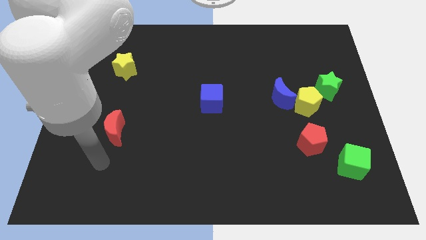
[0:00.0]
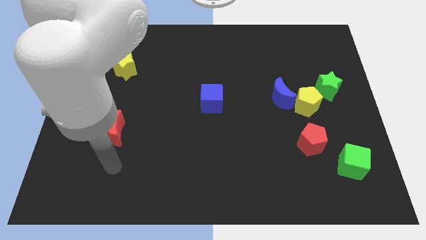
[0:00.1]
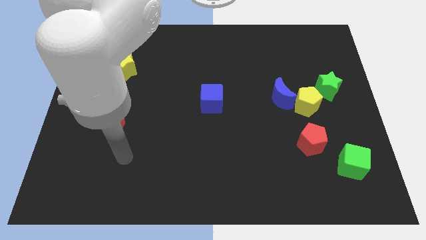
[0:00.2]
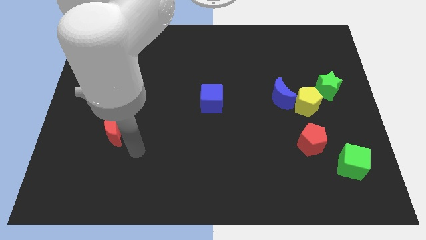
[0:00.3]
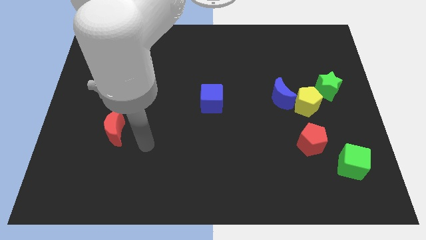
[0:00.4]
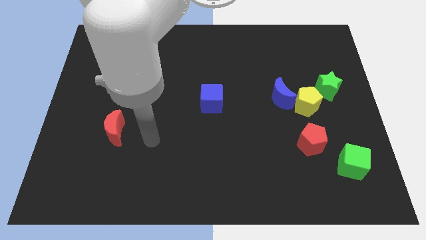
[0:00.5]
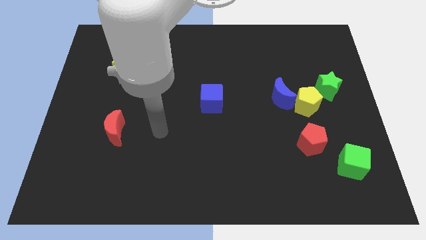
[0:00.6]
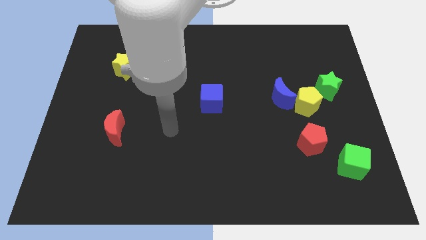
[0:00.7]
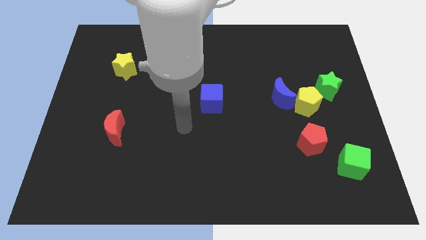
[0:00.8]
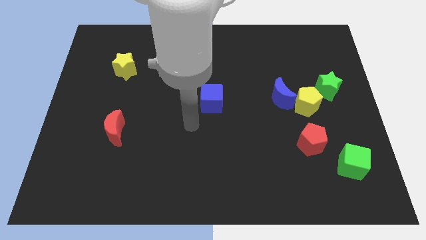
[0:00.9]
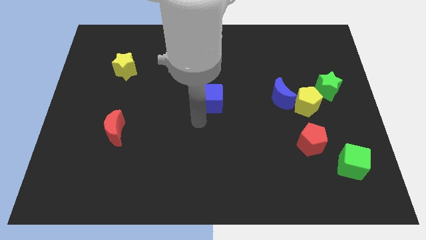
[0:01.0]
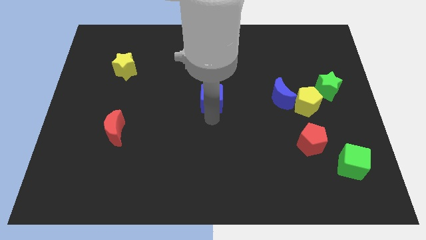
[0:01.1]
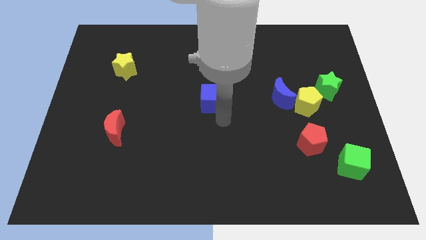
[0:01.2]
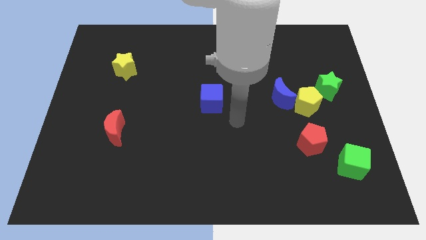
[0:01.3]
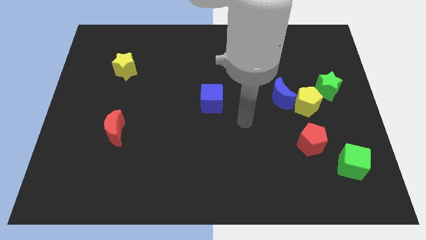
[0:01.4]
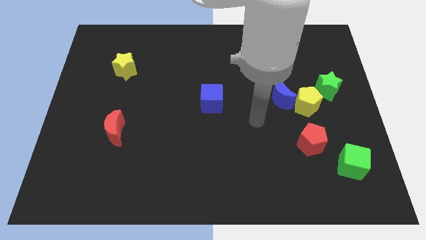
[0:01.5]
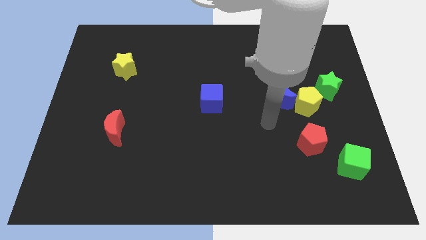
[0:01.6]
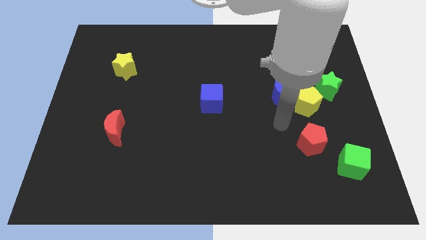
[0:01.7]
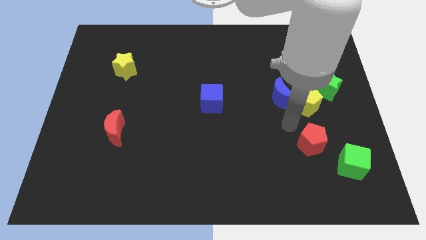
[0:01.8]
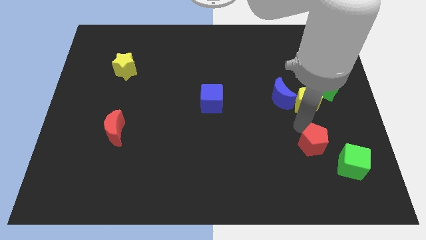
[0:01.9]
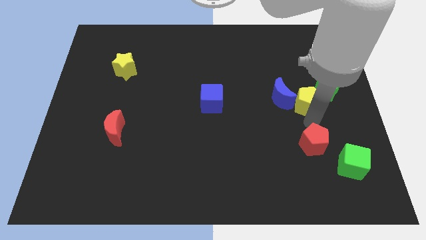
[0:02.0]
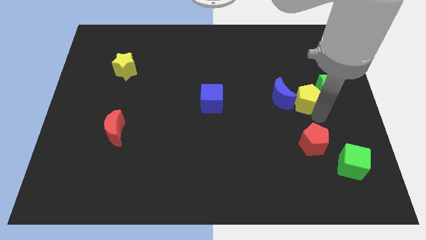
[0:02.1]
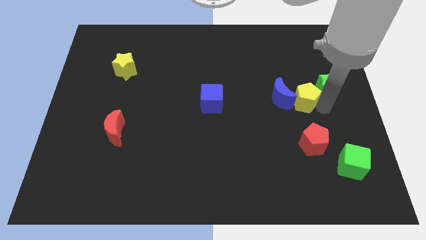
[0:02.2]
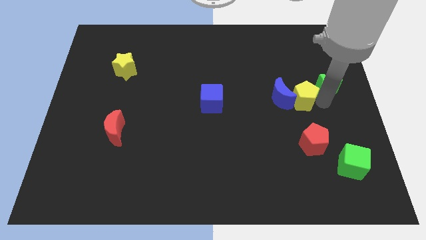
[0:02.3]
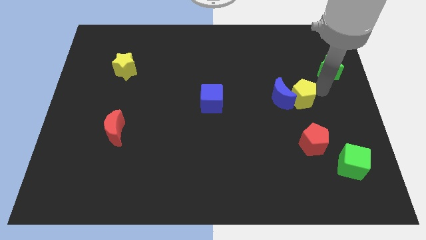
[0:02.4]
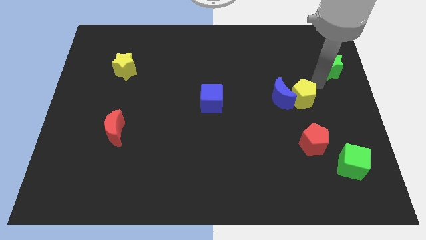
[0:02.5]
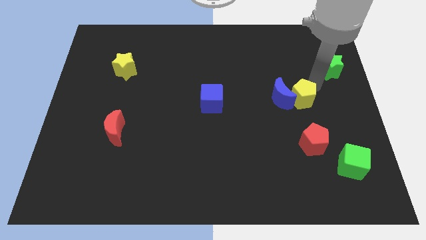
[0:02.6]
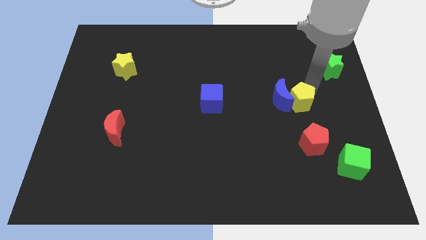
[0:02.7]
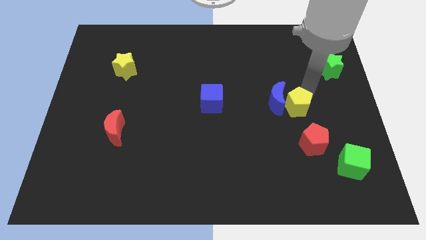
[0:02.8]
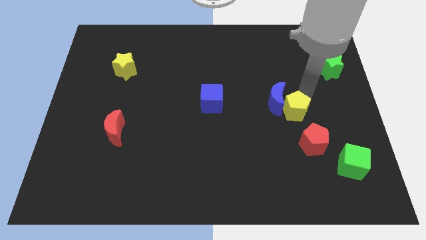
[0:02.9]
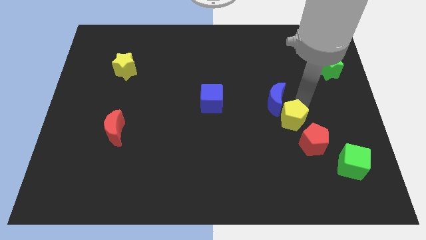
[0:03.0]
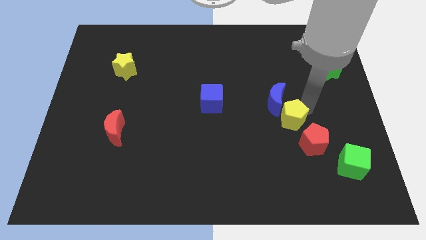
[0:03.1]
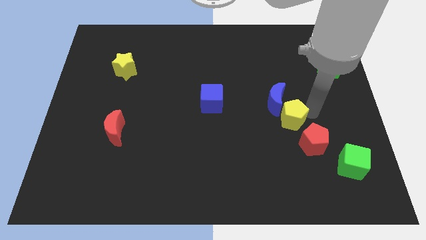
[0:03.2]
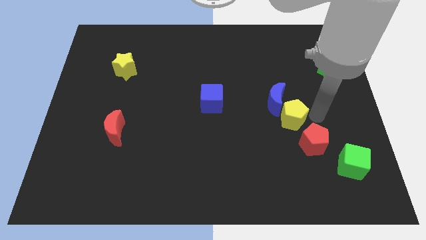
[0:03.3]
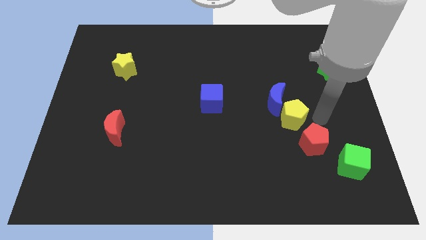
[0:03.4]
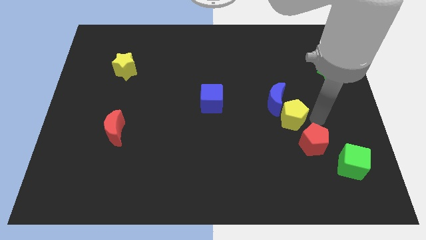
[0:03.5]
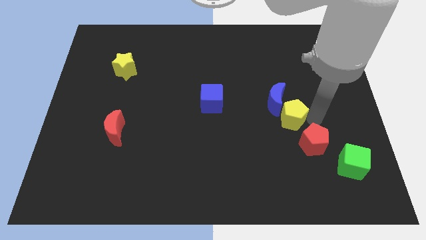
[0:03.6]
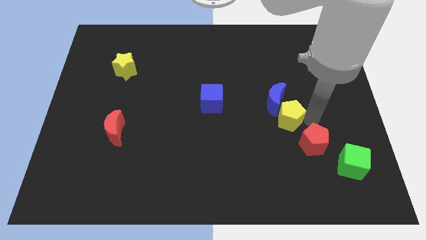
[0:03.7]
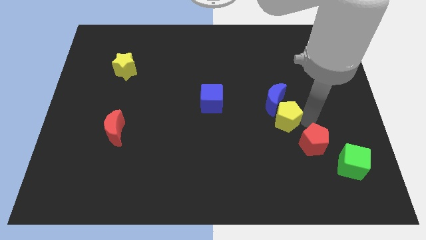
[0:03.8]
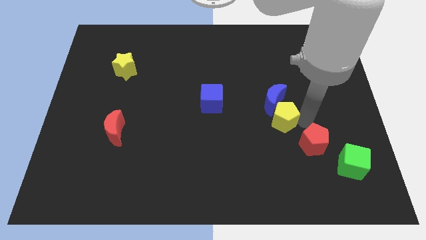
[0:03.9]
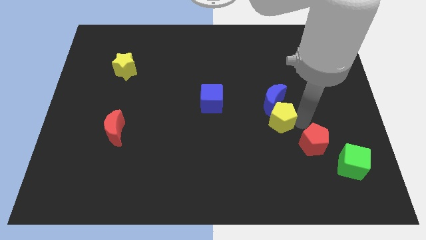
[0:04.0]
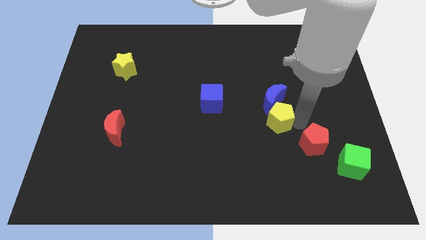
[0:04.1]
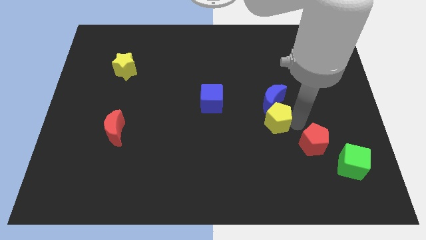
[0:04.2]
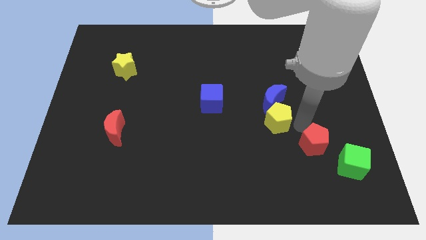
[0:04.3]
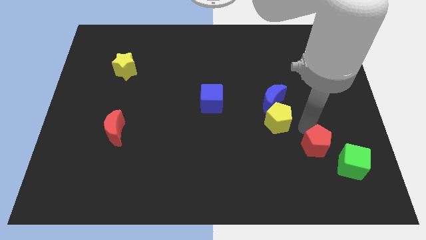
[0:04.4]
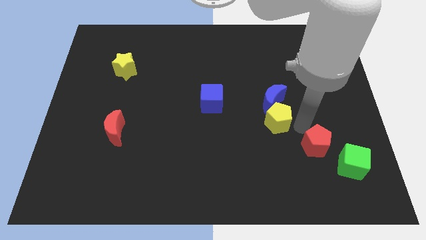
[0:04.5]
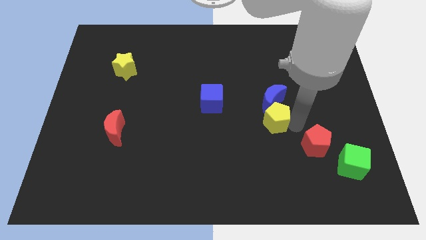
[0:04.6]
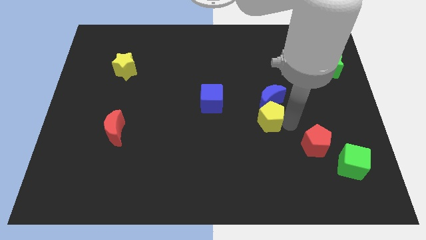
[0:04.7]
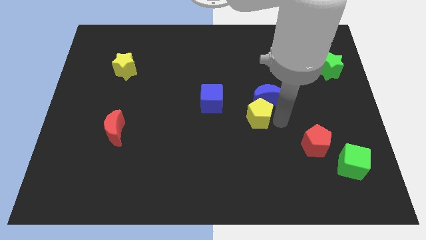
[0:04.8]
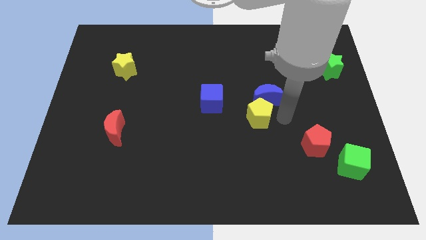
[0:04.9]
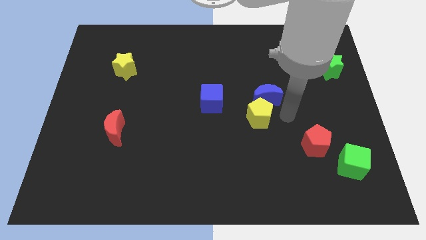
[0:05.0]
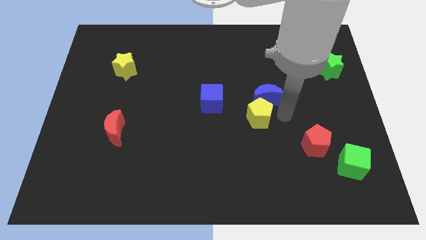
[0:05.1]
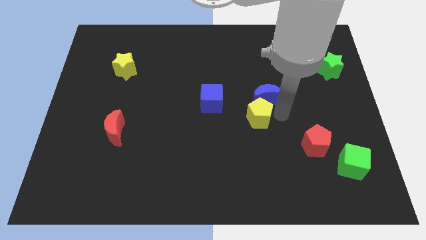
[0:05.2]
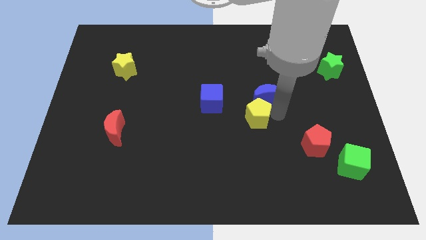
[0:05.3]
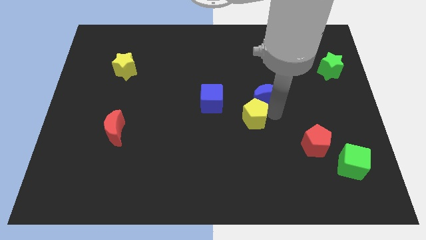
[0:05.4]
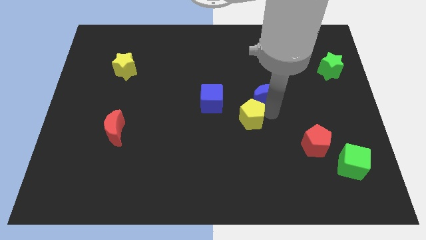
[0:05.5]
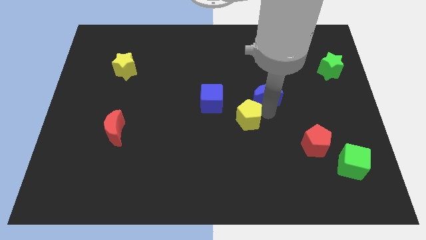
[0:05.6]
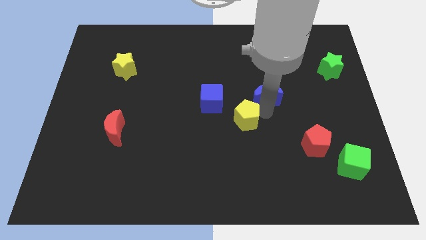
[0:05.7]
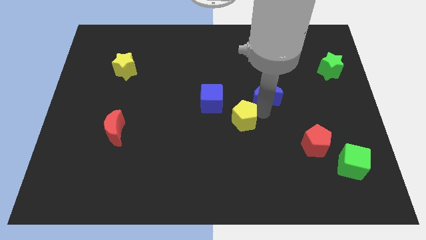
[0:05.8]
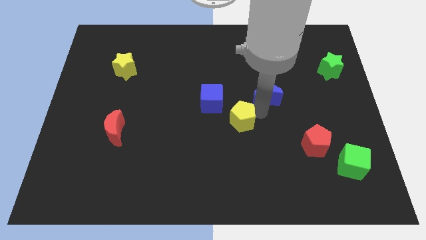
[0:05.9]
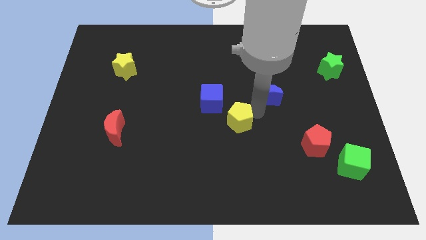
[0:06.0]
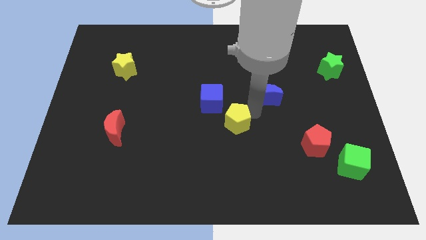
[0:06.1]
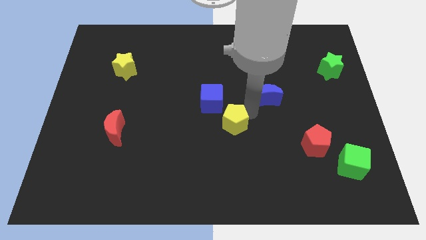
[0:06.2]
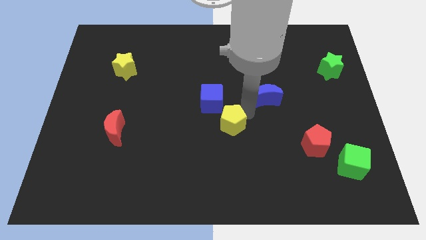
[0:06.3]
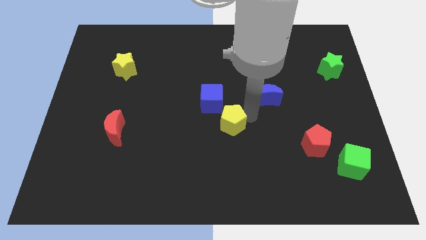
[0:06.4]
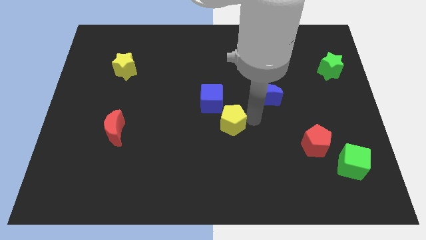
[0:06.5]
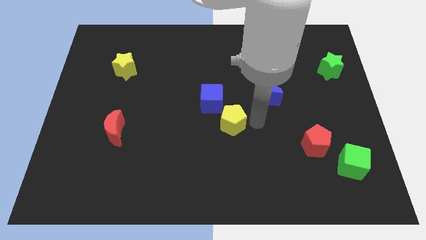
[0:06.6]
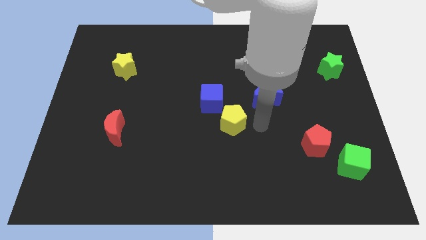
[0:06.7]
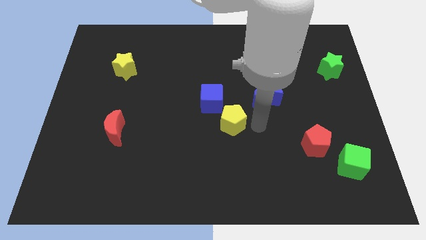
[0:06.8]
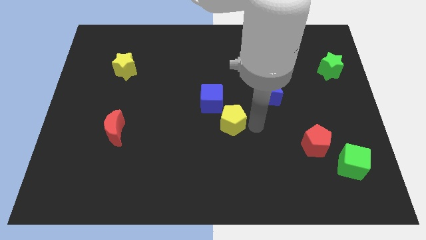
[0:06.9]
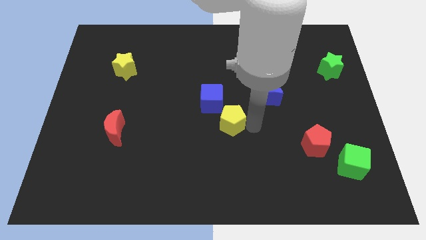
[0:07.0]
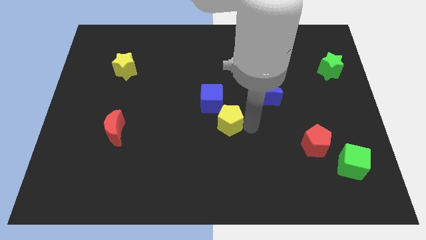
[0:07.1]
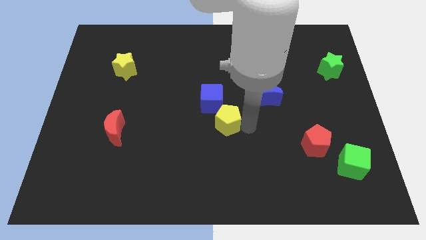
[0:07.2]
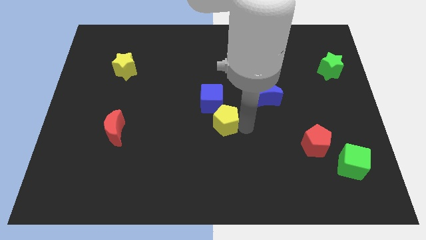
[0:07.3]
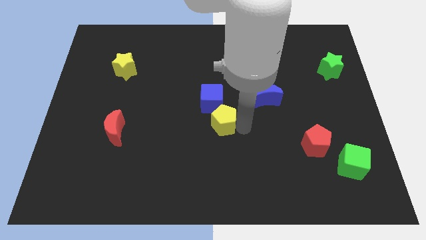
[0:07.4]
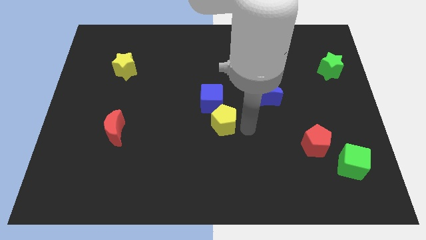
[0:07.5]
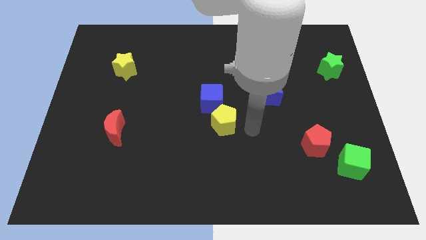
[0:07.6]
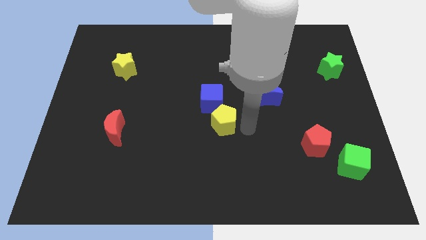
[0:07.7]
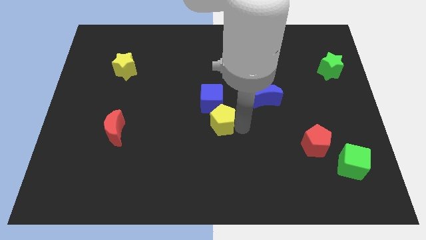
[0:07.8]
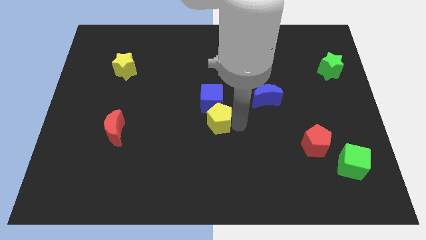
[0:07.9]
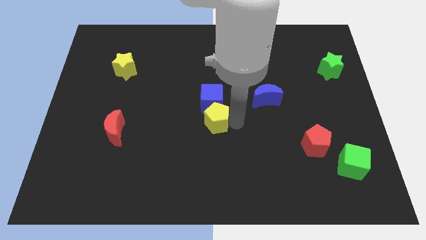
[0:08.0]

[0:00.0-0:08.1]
push the yellow pentagon to the bottom left of the blue cube
